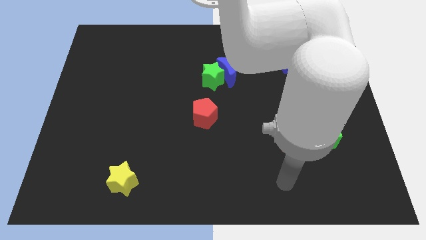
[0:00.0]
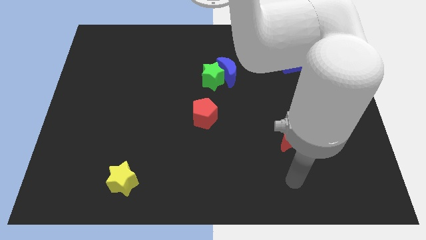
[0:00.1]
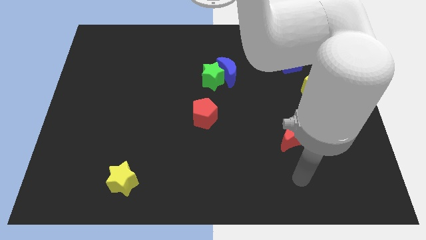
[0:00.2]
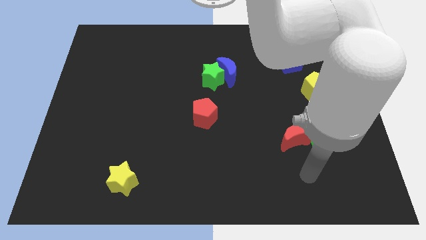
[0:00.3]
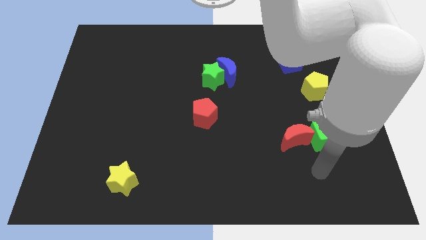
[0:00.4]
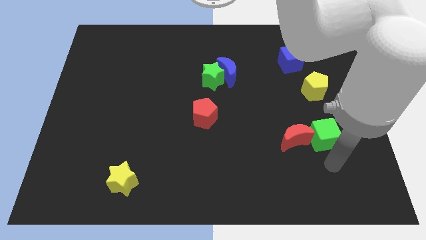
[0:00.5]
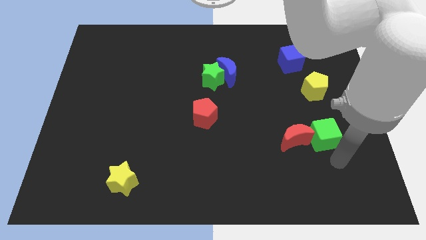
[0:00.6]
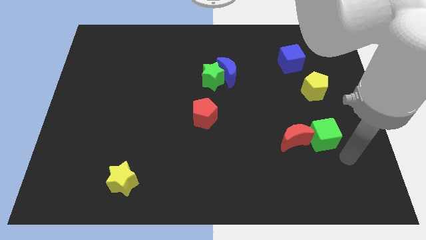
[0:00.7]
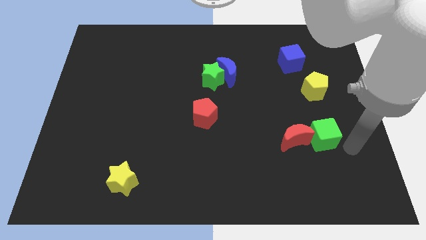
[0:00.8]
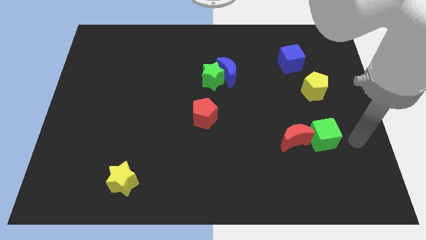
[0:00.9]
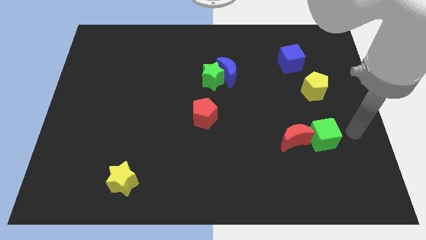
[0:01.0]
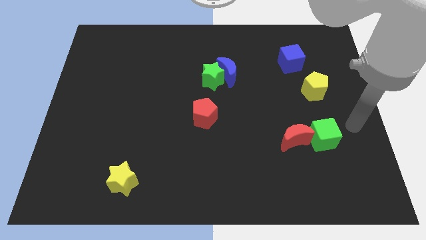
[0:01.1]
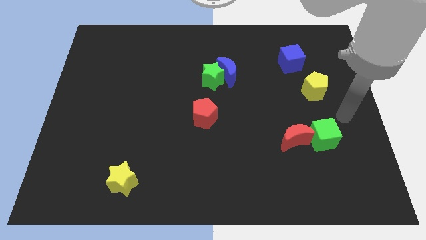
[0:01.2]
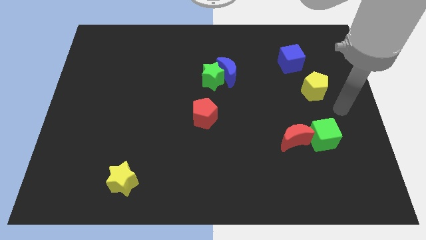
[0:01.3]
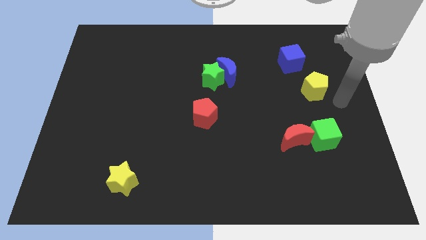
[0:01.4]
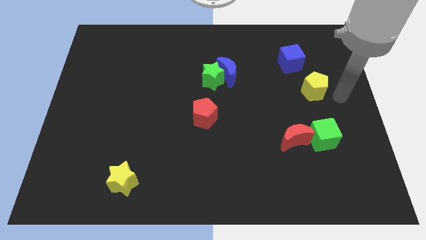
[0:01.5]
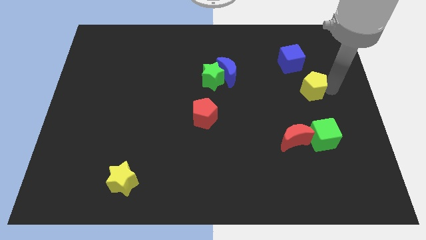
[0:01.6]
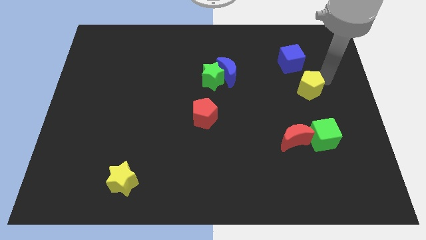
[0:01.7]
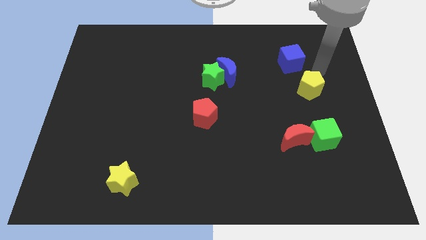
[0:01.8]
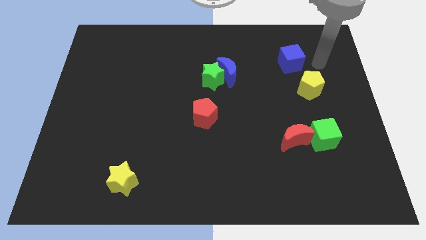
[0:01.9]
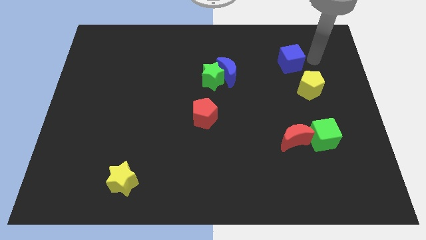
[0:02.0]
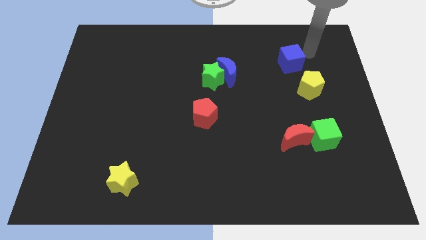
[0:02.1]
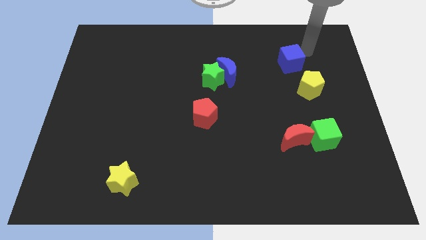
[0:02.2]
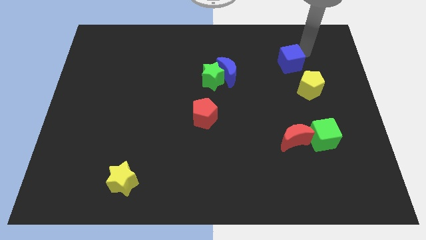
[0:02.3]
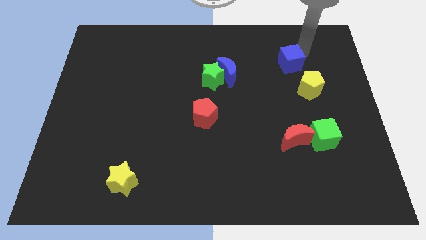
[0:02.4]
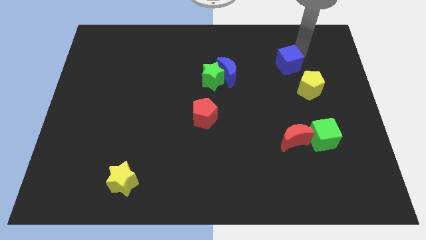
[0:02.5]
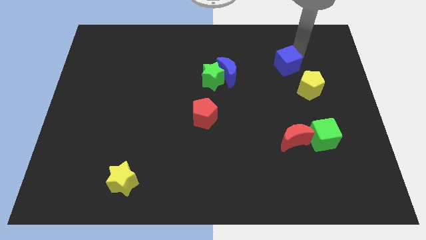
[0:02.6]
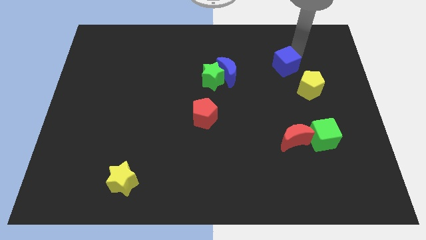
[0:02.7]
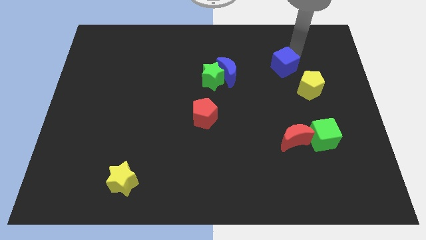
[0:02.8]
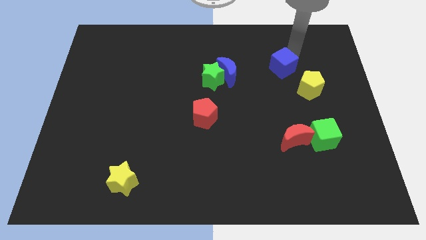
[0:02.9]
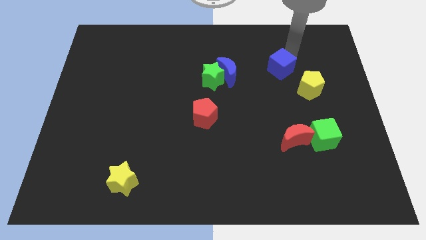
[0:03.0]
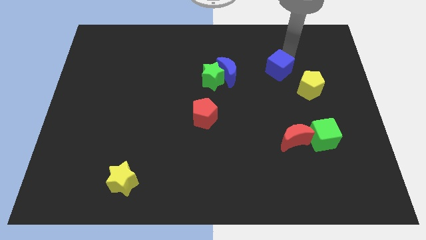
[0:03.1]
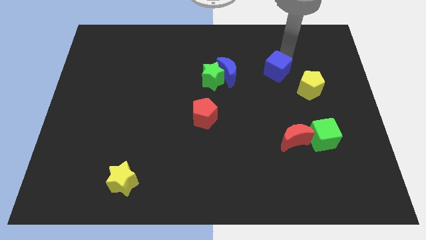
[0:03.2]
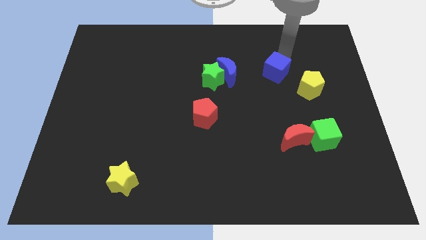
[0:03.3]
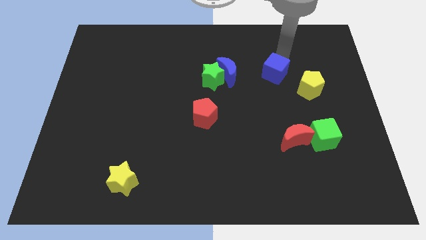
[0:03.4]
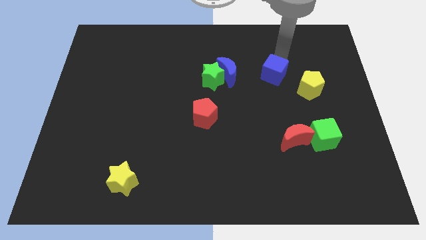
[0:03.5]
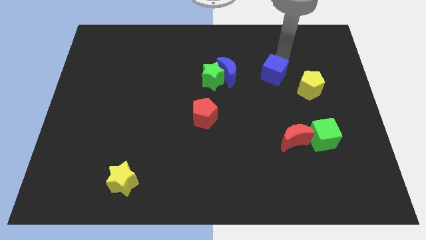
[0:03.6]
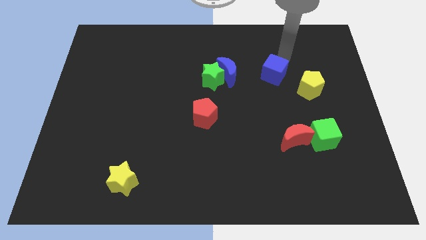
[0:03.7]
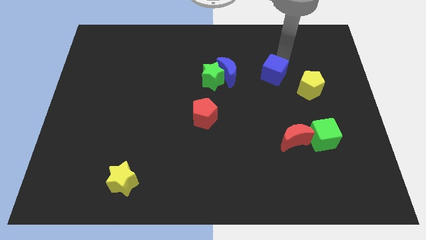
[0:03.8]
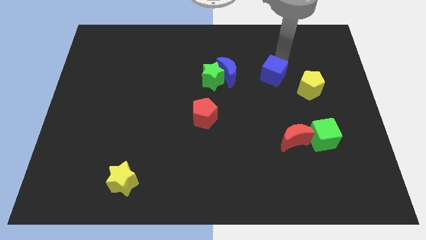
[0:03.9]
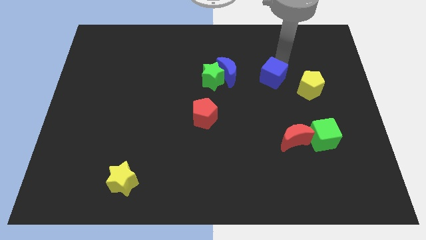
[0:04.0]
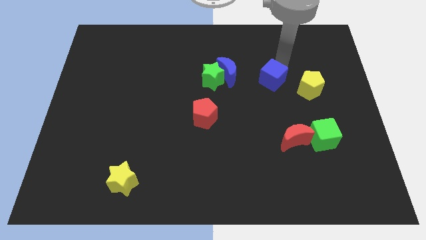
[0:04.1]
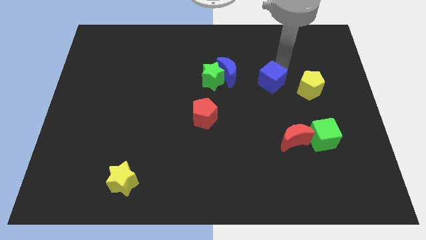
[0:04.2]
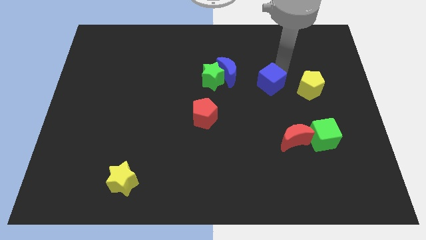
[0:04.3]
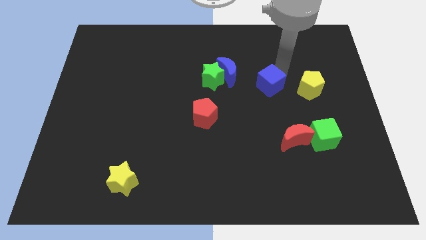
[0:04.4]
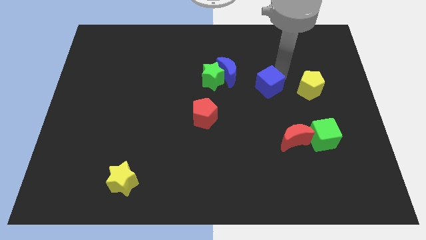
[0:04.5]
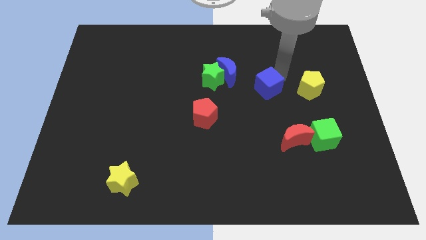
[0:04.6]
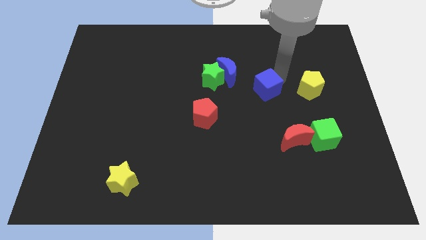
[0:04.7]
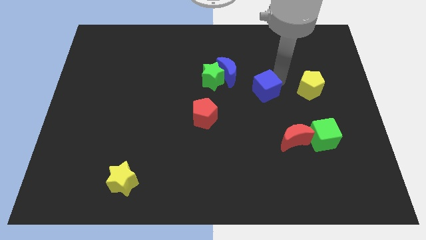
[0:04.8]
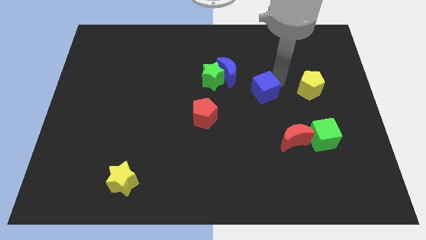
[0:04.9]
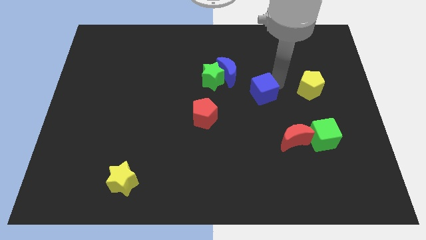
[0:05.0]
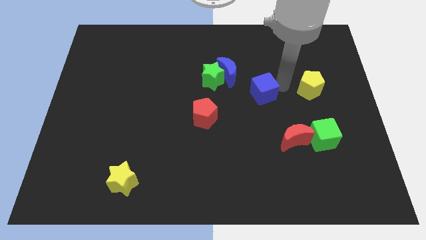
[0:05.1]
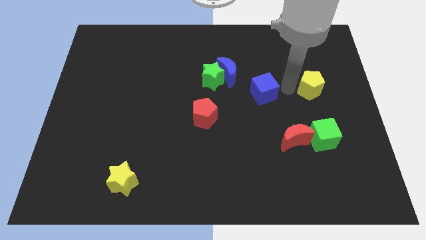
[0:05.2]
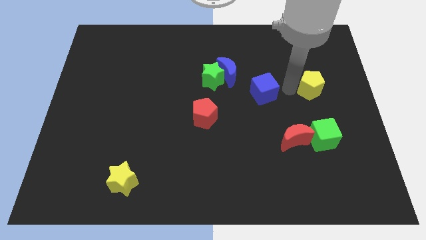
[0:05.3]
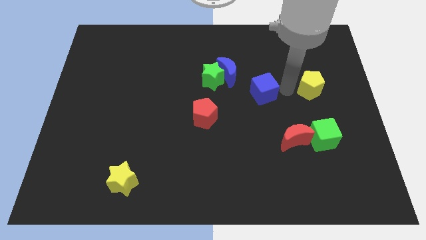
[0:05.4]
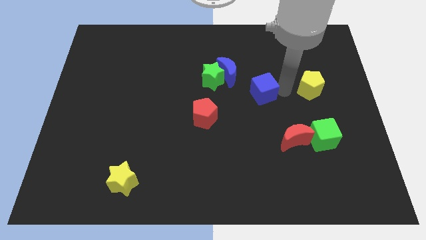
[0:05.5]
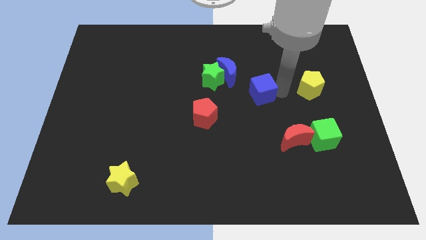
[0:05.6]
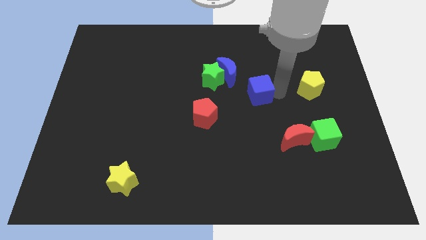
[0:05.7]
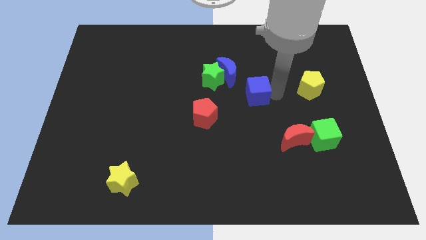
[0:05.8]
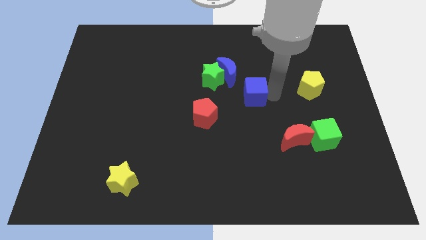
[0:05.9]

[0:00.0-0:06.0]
push the blue cube to the bottom right of the green star

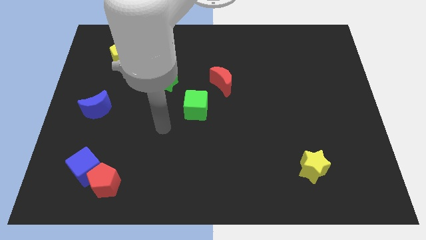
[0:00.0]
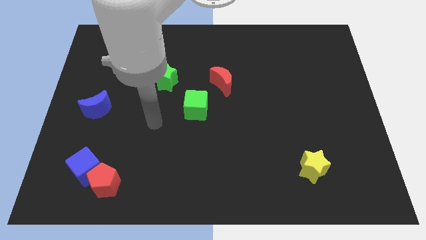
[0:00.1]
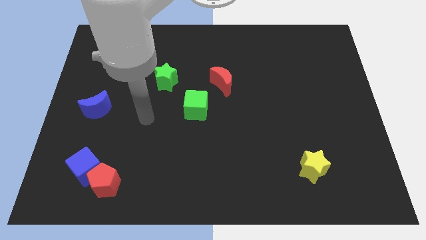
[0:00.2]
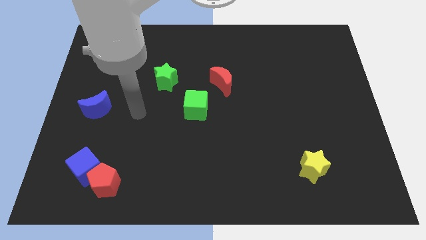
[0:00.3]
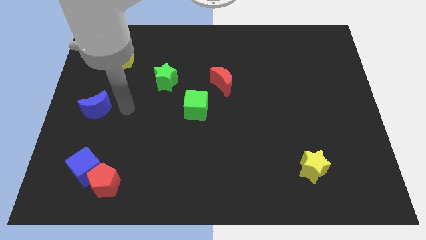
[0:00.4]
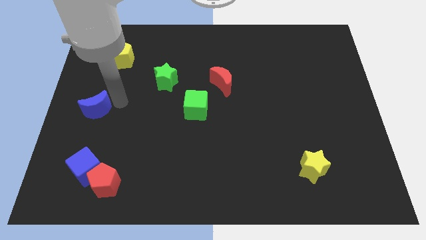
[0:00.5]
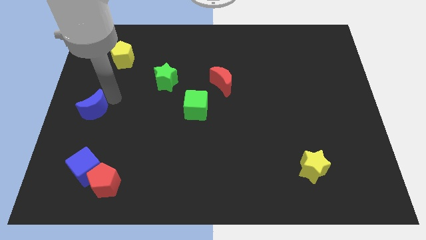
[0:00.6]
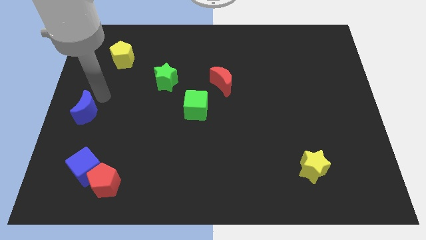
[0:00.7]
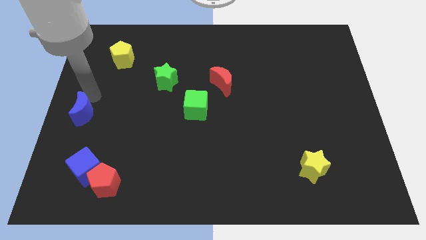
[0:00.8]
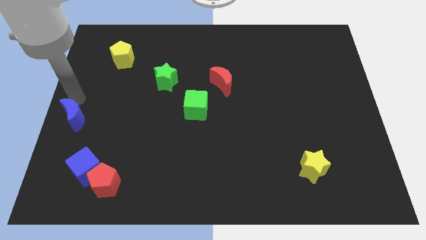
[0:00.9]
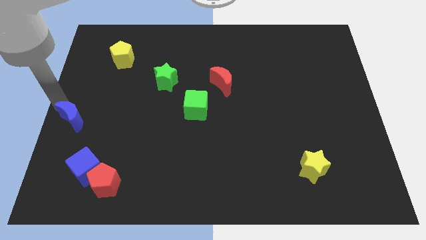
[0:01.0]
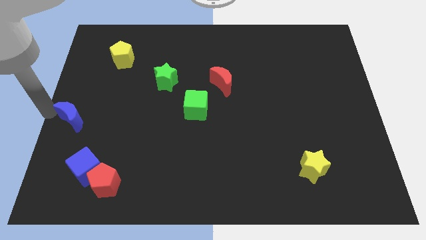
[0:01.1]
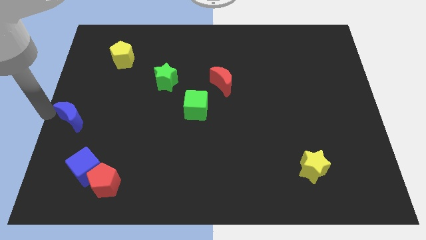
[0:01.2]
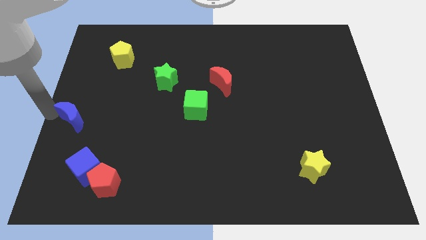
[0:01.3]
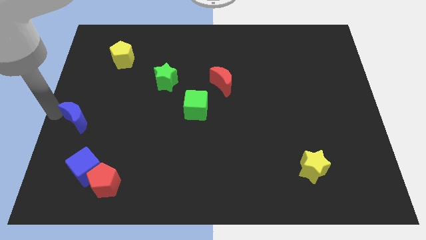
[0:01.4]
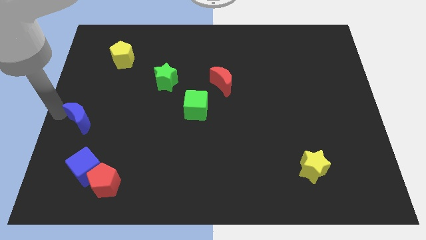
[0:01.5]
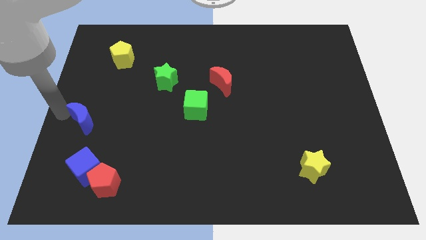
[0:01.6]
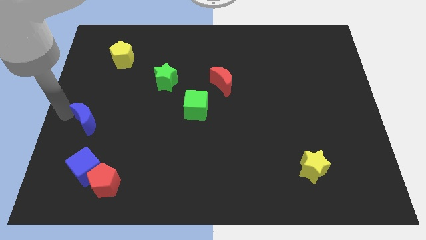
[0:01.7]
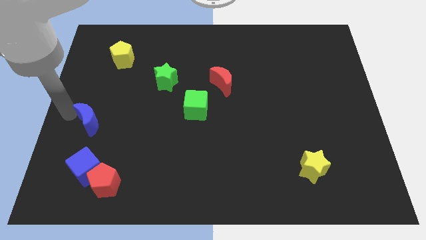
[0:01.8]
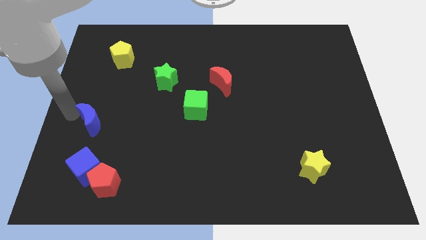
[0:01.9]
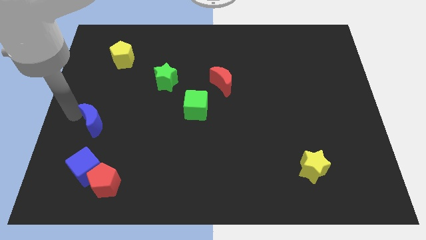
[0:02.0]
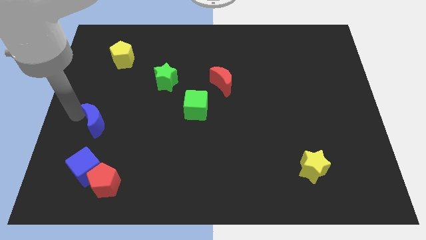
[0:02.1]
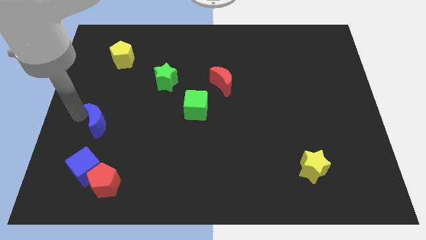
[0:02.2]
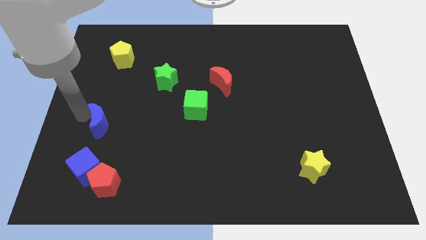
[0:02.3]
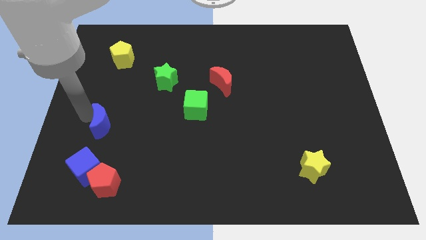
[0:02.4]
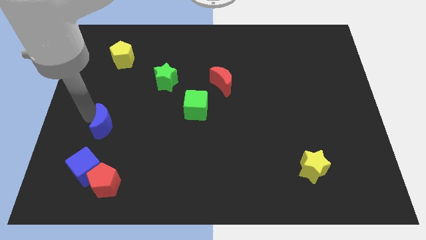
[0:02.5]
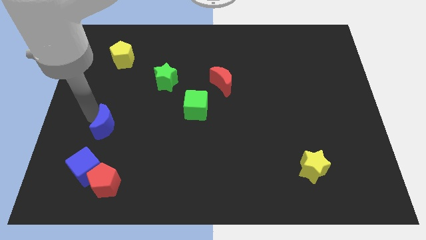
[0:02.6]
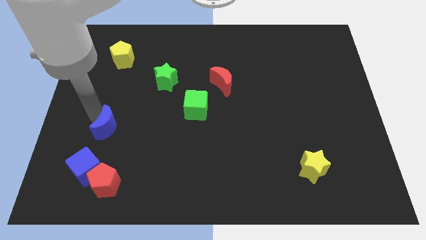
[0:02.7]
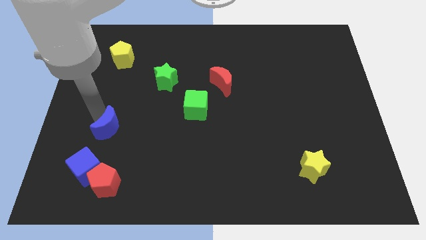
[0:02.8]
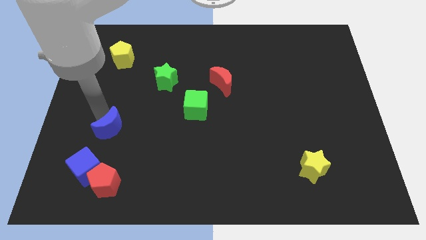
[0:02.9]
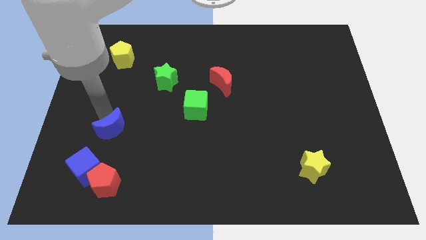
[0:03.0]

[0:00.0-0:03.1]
slide the blue moon to the top right of the blue cube
